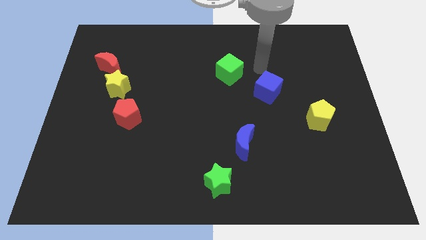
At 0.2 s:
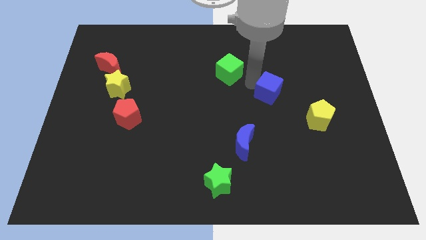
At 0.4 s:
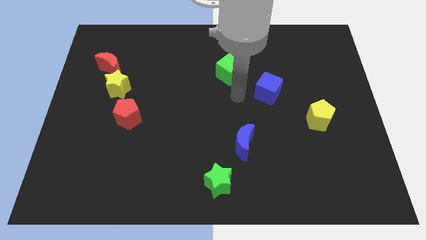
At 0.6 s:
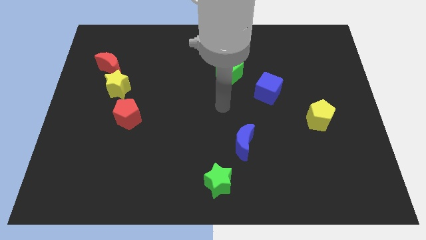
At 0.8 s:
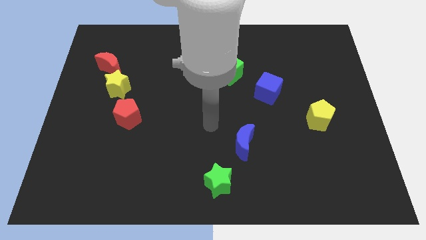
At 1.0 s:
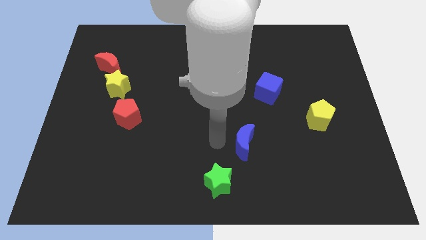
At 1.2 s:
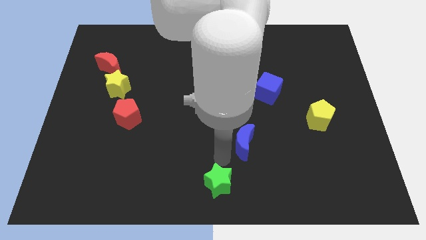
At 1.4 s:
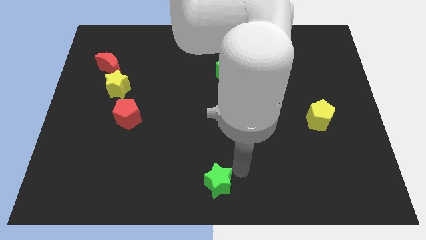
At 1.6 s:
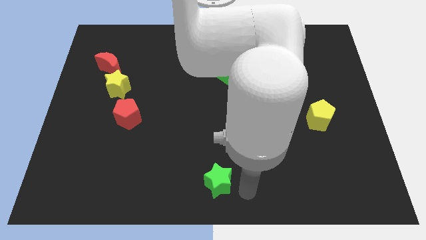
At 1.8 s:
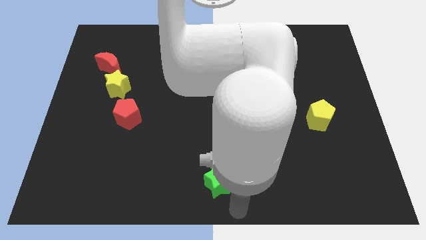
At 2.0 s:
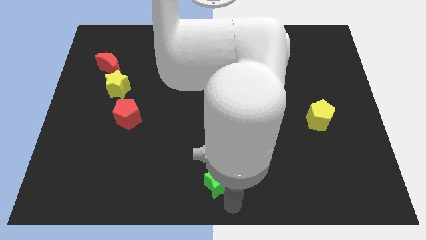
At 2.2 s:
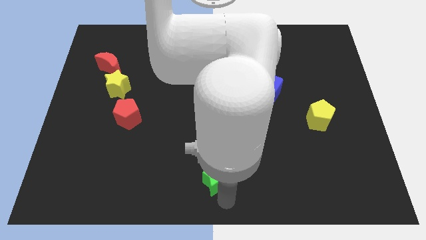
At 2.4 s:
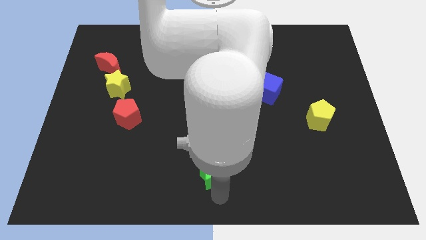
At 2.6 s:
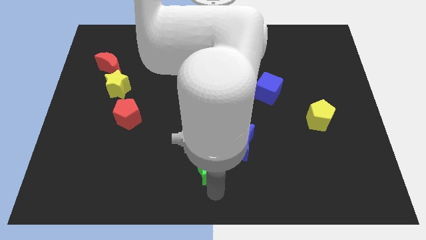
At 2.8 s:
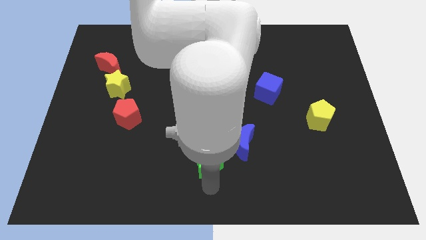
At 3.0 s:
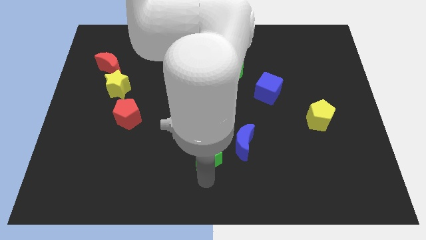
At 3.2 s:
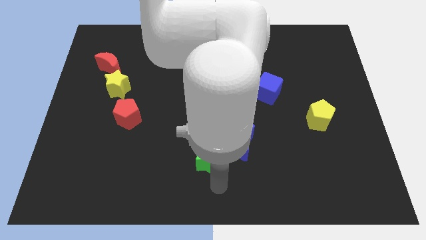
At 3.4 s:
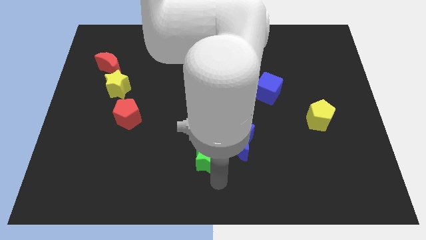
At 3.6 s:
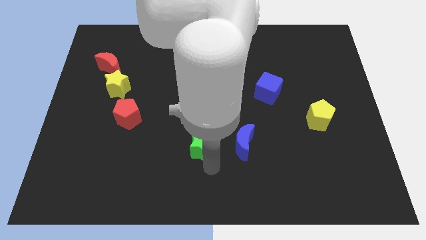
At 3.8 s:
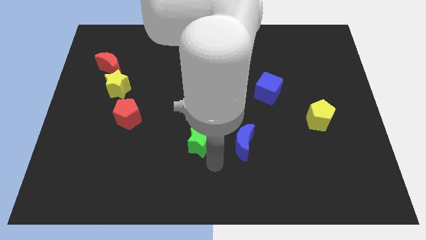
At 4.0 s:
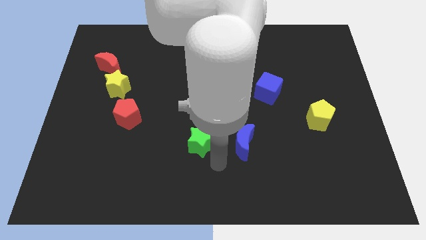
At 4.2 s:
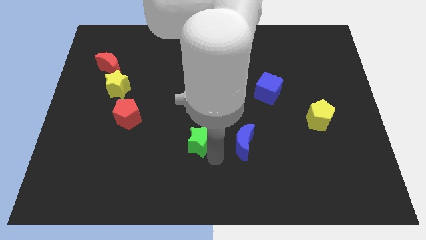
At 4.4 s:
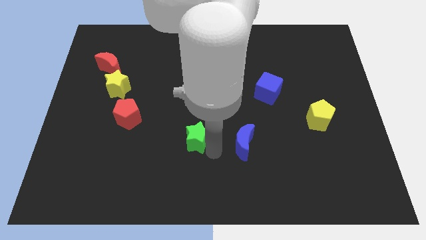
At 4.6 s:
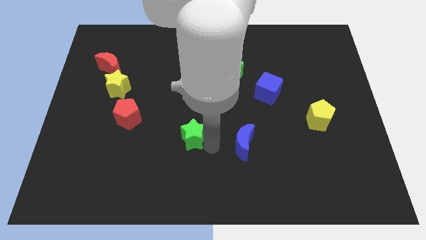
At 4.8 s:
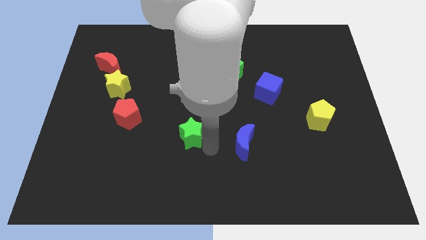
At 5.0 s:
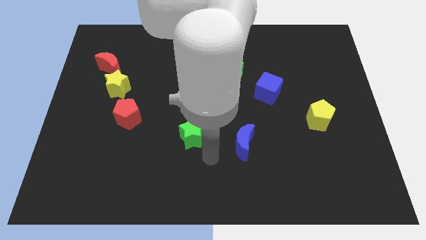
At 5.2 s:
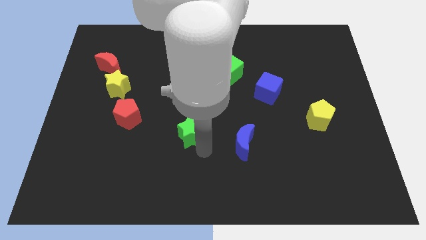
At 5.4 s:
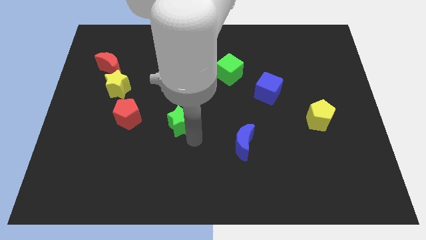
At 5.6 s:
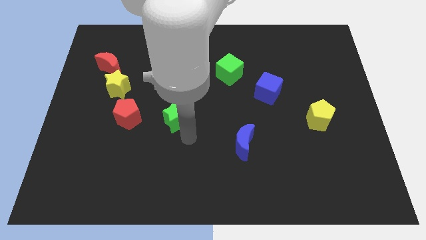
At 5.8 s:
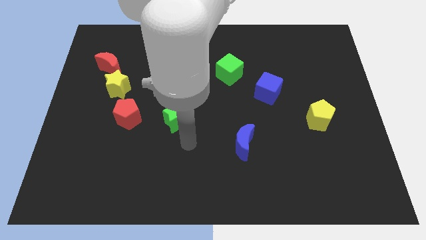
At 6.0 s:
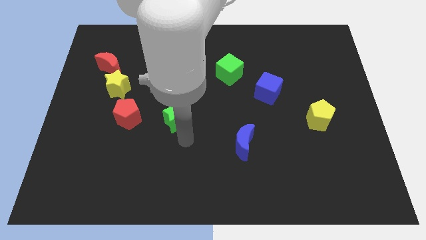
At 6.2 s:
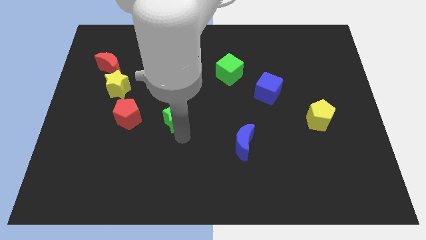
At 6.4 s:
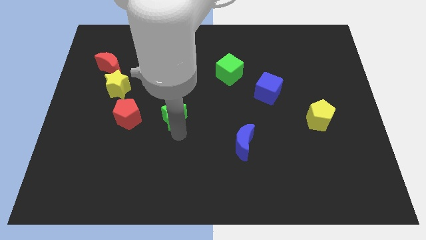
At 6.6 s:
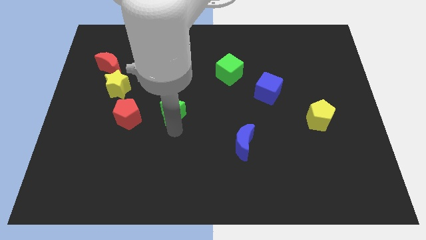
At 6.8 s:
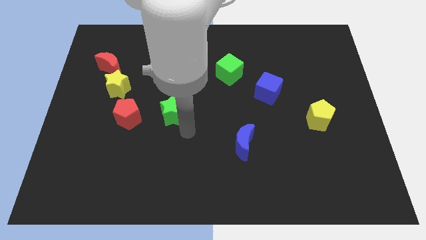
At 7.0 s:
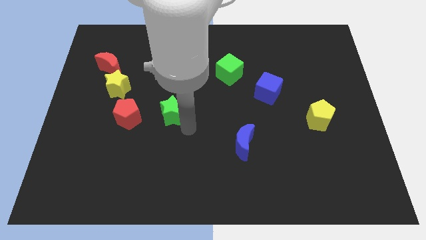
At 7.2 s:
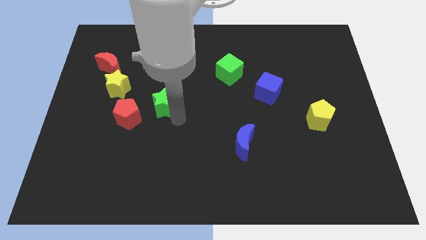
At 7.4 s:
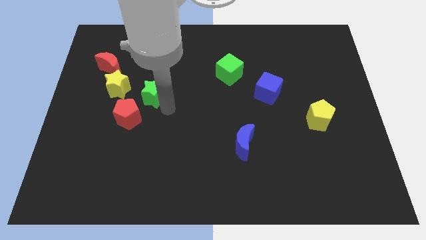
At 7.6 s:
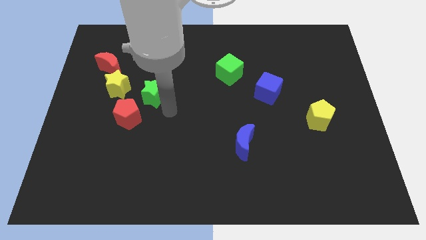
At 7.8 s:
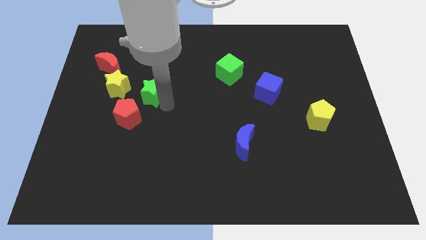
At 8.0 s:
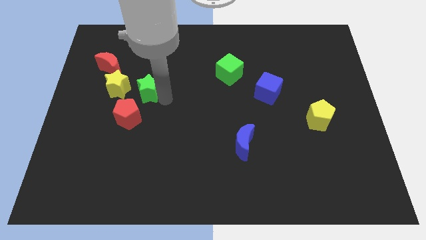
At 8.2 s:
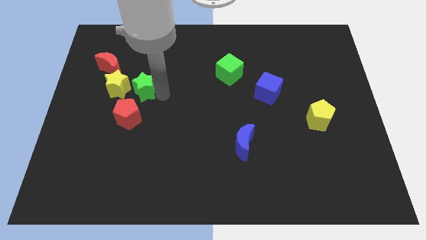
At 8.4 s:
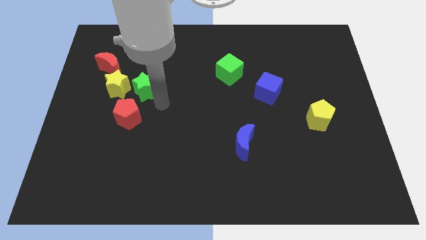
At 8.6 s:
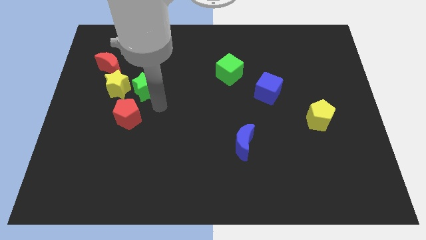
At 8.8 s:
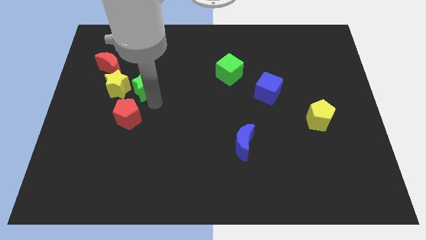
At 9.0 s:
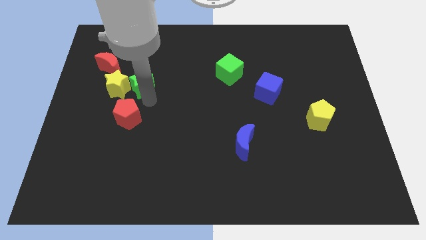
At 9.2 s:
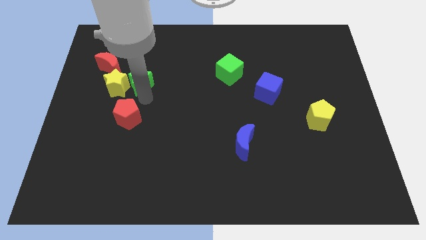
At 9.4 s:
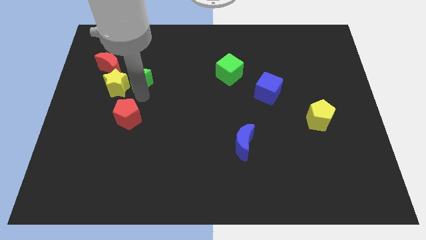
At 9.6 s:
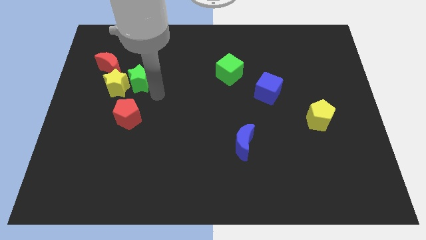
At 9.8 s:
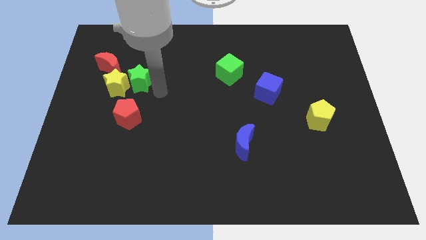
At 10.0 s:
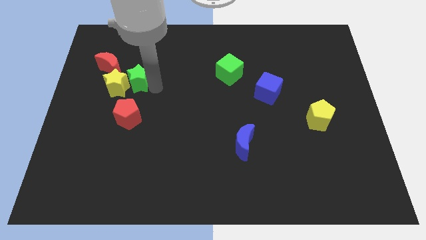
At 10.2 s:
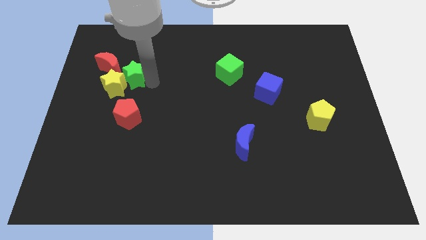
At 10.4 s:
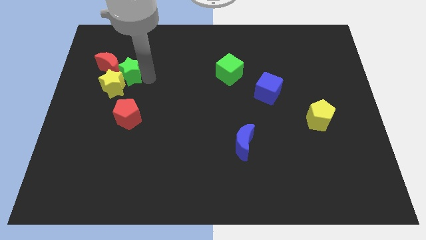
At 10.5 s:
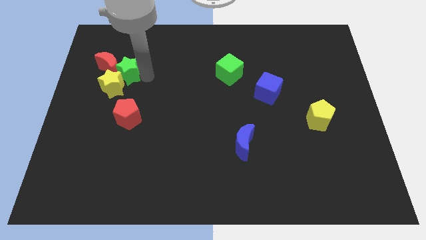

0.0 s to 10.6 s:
push the green star towards the red moon

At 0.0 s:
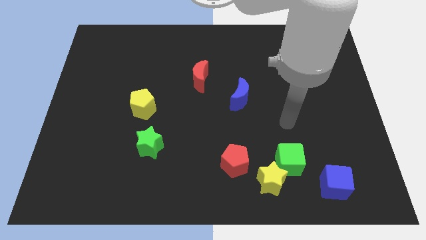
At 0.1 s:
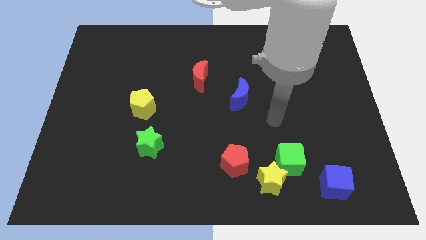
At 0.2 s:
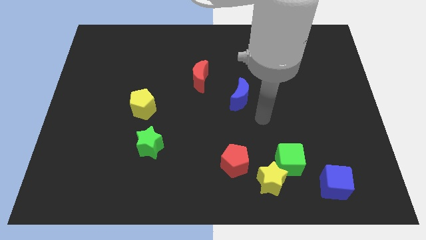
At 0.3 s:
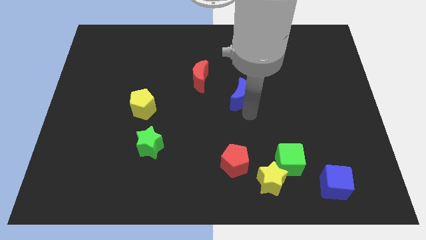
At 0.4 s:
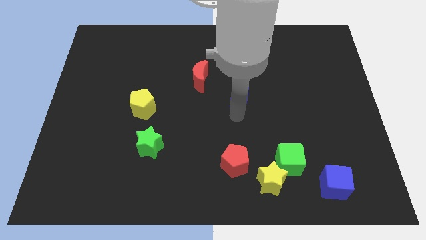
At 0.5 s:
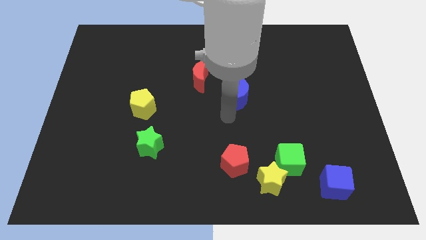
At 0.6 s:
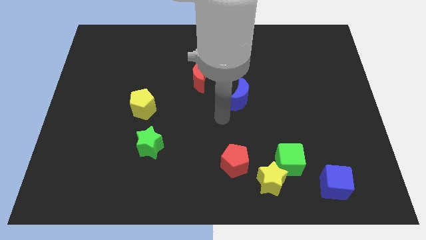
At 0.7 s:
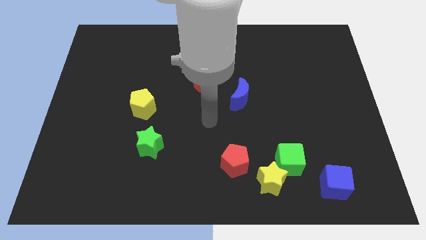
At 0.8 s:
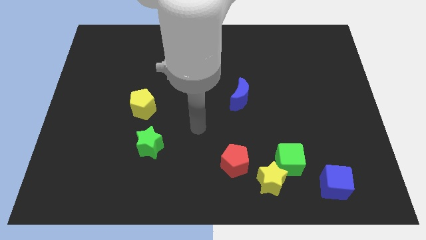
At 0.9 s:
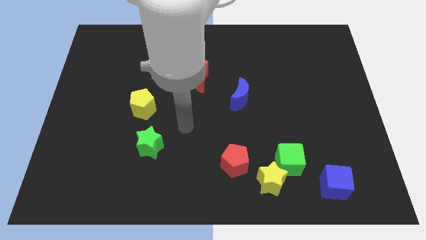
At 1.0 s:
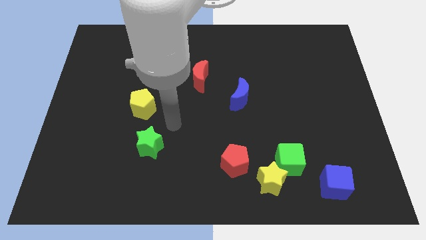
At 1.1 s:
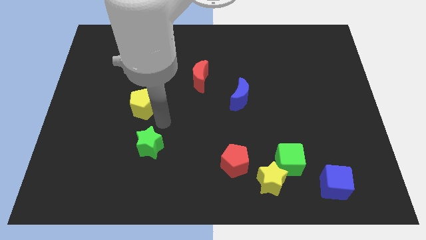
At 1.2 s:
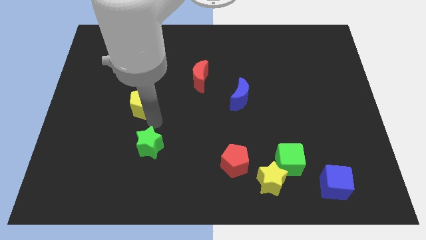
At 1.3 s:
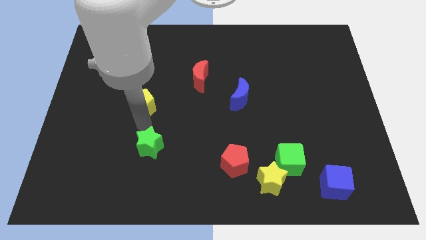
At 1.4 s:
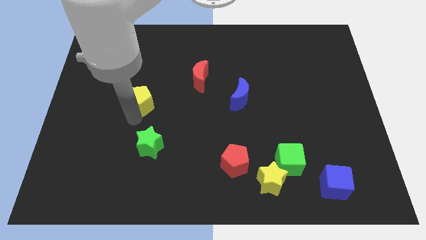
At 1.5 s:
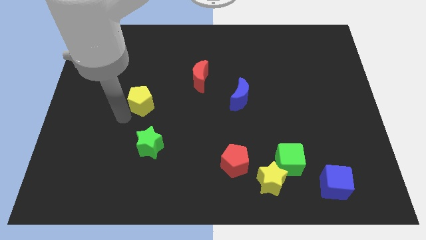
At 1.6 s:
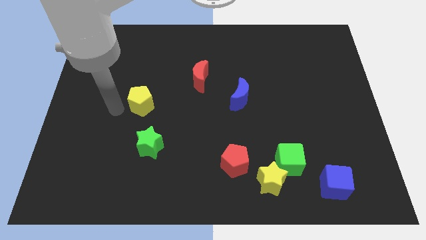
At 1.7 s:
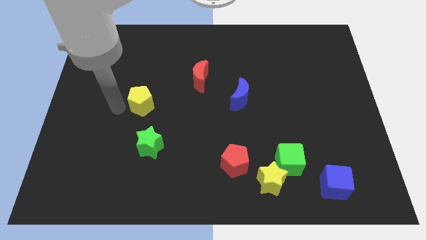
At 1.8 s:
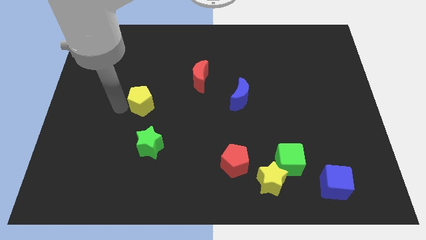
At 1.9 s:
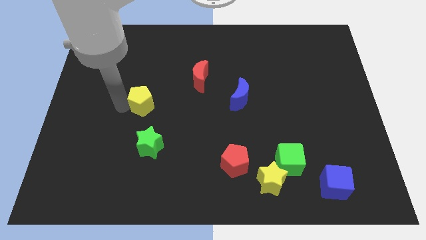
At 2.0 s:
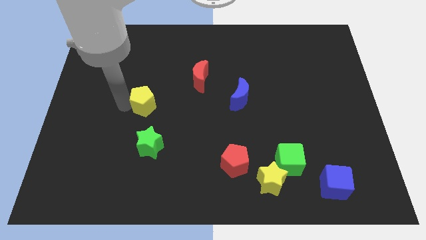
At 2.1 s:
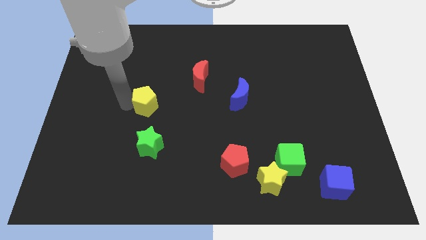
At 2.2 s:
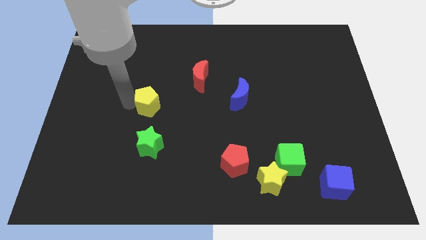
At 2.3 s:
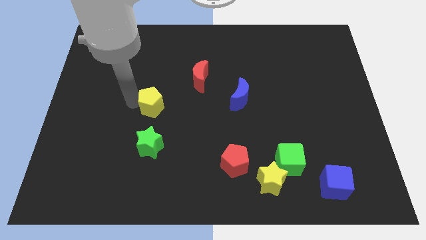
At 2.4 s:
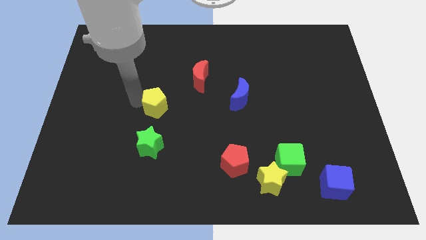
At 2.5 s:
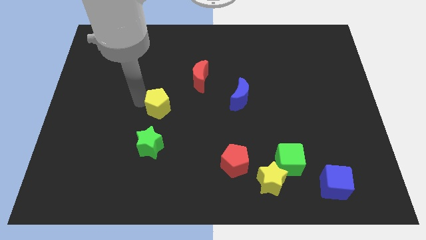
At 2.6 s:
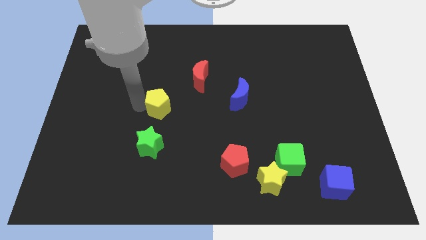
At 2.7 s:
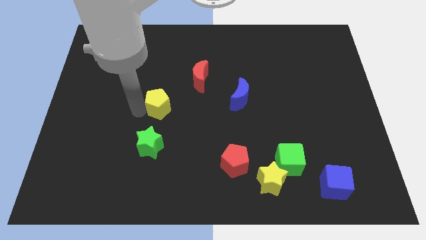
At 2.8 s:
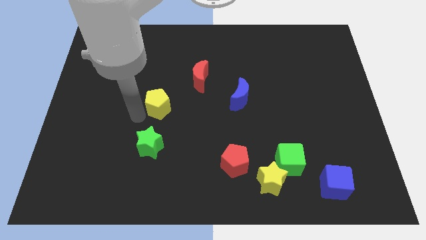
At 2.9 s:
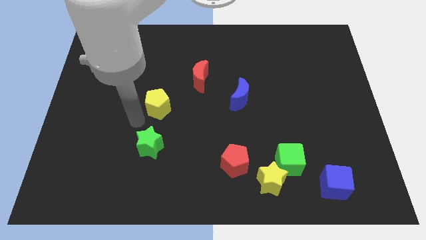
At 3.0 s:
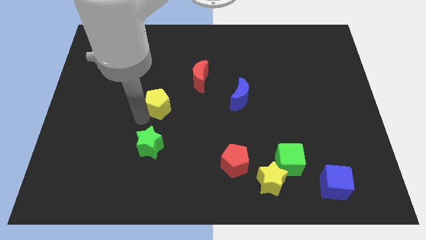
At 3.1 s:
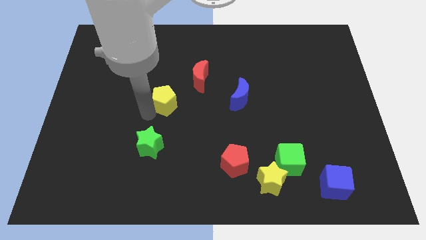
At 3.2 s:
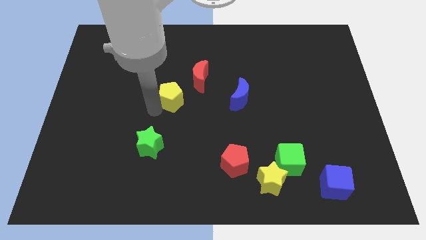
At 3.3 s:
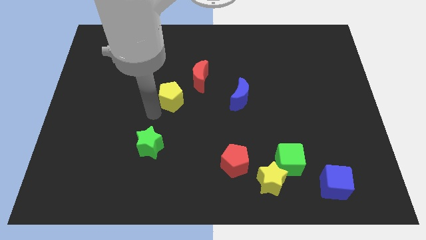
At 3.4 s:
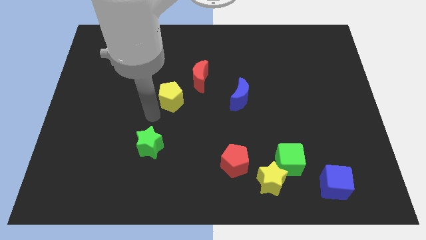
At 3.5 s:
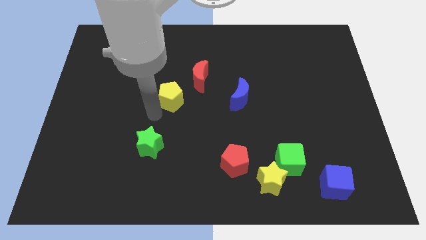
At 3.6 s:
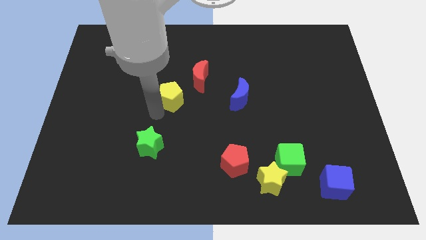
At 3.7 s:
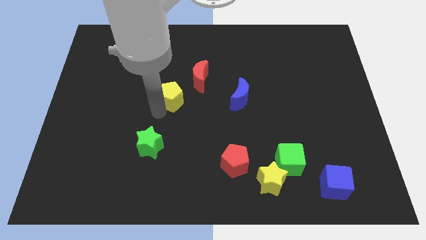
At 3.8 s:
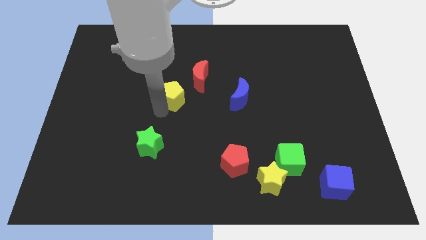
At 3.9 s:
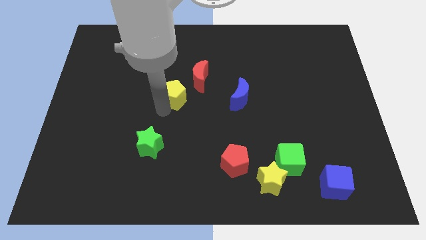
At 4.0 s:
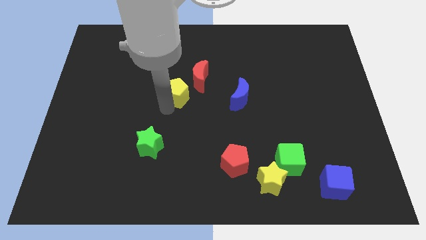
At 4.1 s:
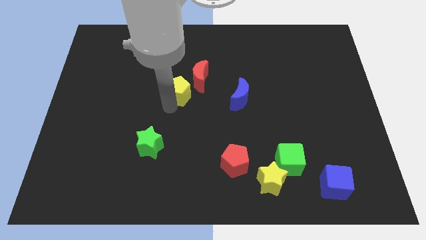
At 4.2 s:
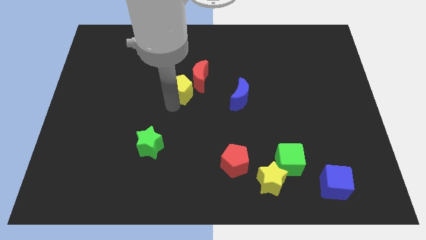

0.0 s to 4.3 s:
put the yellow pentagon close to the red moon
